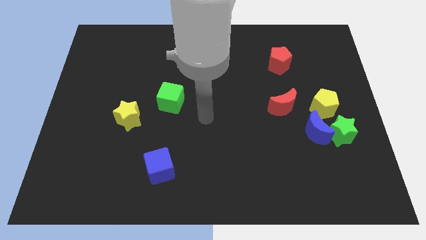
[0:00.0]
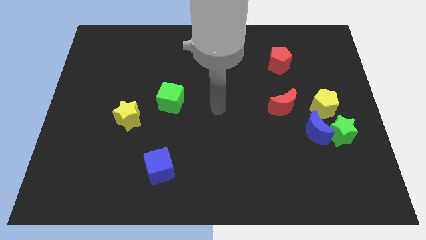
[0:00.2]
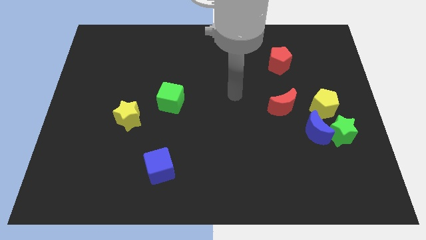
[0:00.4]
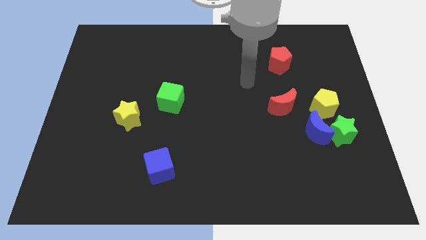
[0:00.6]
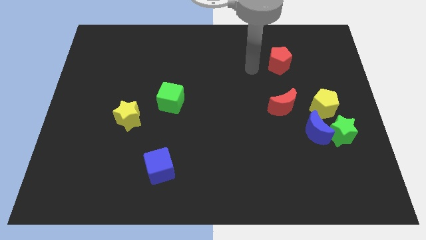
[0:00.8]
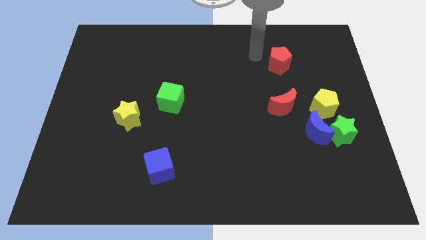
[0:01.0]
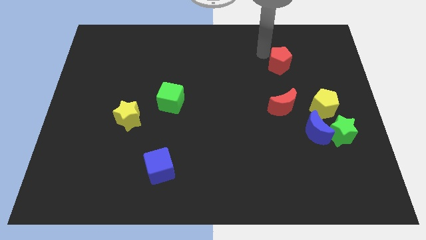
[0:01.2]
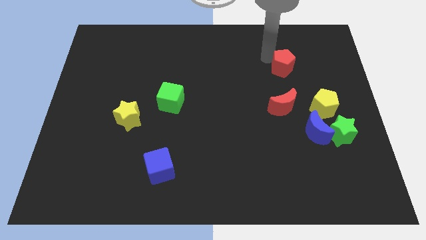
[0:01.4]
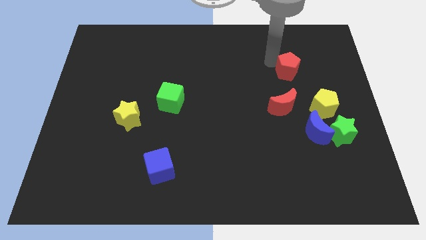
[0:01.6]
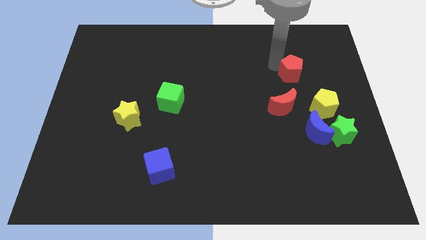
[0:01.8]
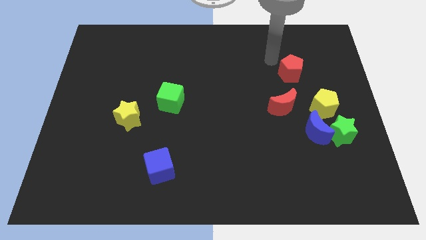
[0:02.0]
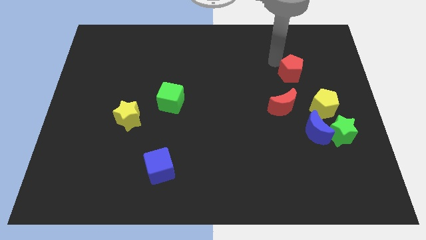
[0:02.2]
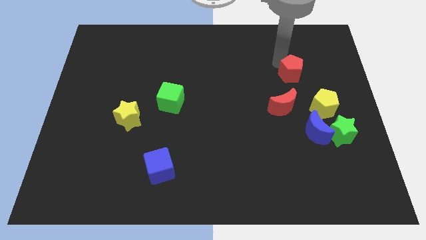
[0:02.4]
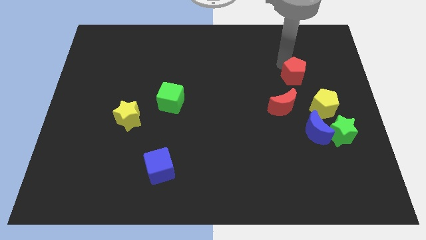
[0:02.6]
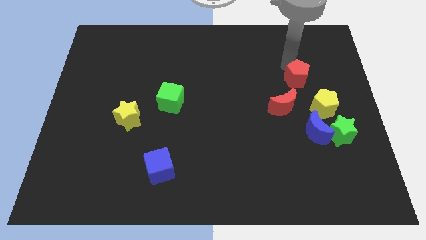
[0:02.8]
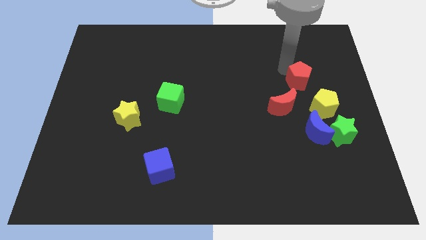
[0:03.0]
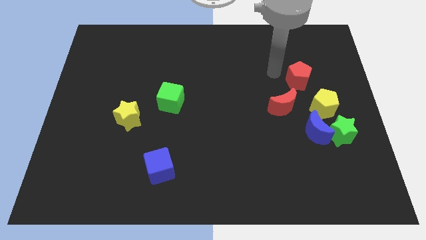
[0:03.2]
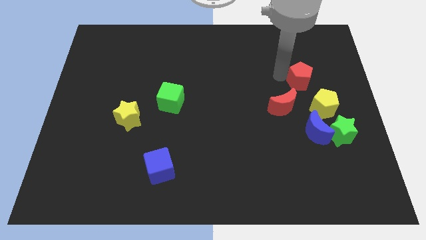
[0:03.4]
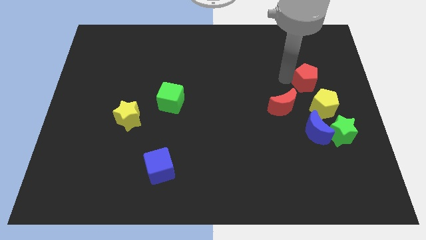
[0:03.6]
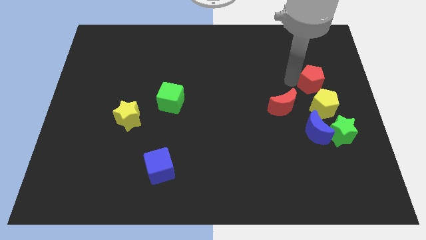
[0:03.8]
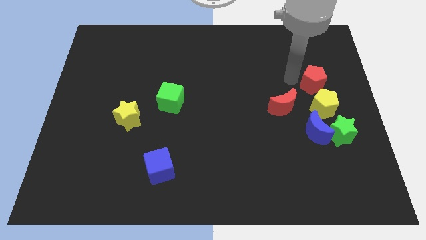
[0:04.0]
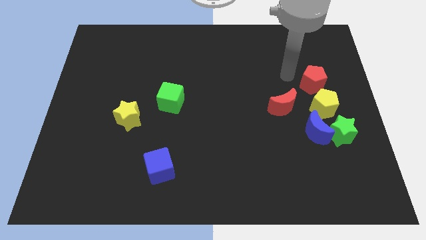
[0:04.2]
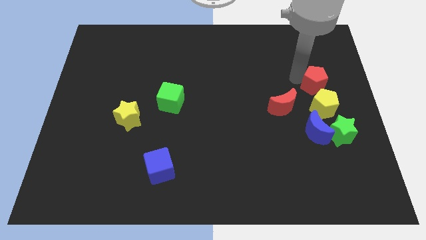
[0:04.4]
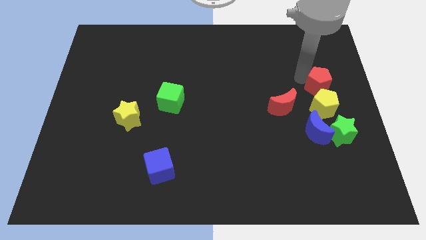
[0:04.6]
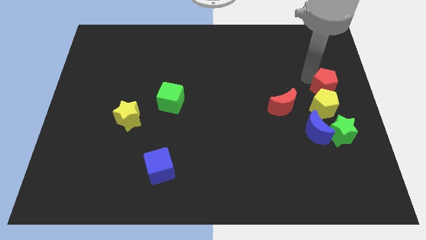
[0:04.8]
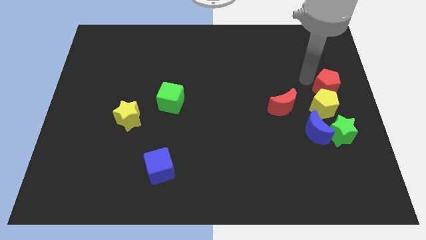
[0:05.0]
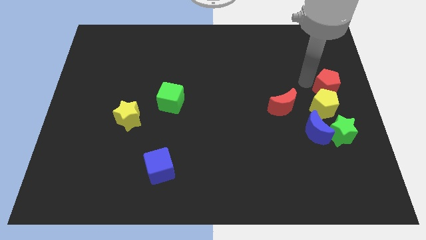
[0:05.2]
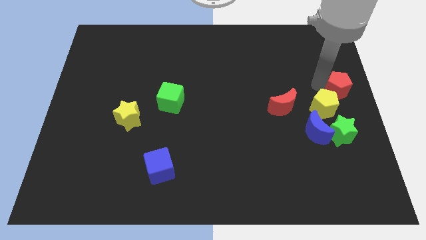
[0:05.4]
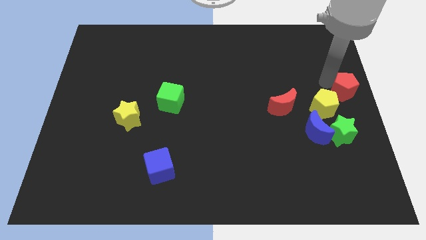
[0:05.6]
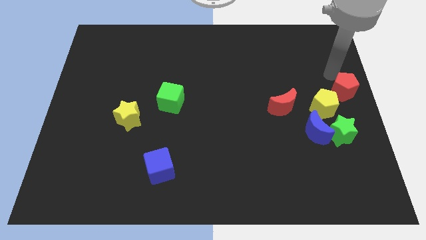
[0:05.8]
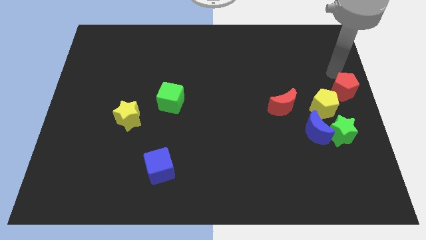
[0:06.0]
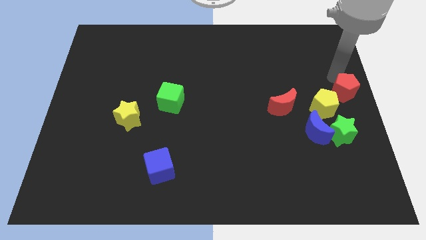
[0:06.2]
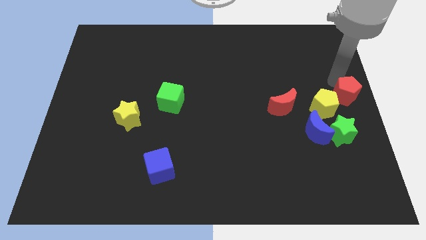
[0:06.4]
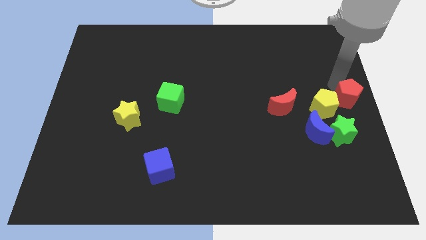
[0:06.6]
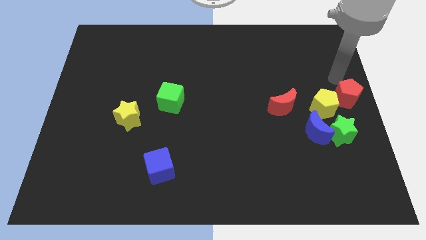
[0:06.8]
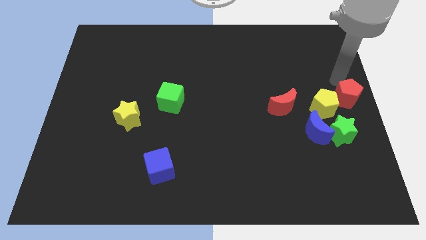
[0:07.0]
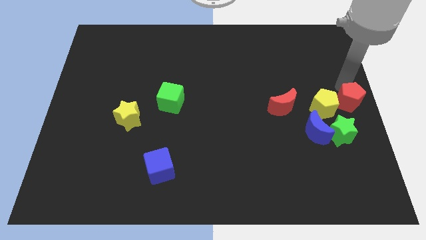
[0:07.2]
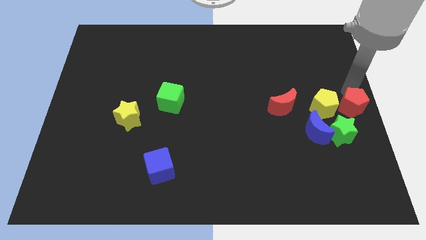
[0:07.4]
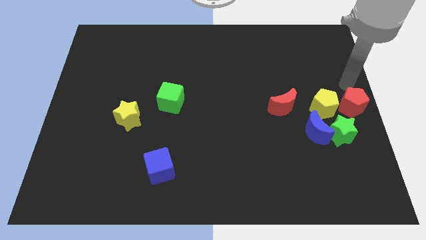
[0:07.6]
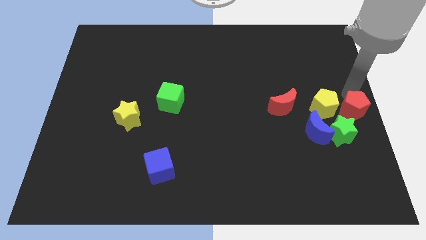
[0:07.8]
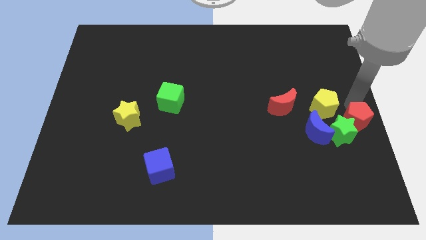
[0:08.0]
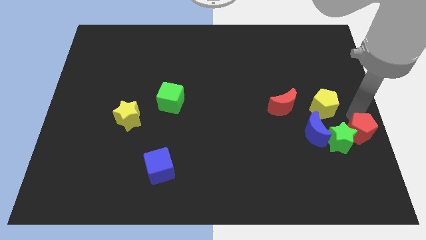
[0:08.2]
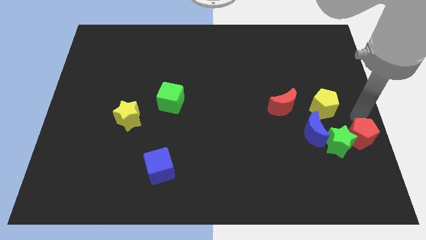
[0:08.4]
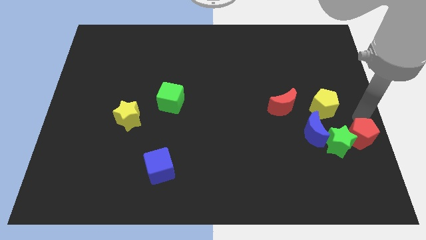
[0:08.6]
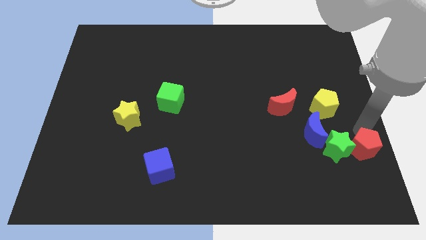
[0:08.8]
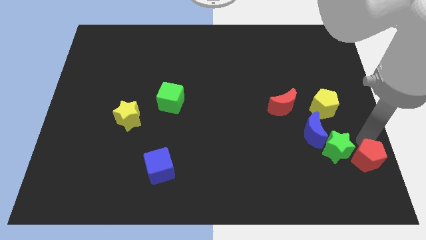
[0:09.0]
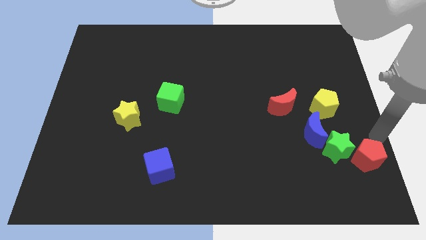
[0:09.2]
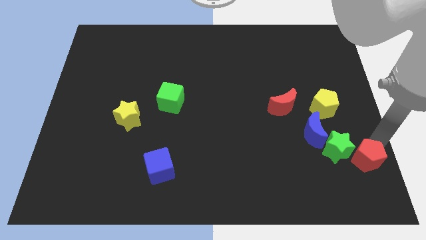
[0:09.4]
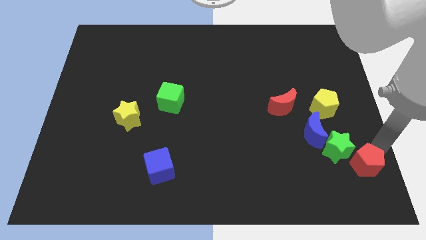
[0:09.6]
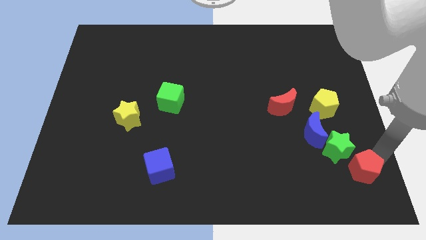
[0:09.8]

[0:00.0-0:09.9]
move the red pentagon to the bottom of the green star

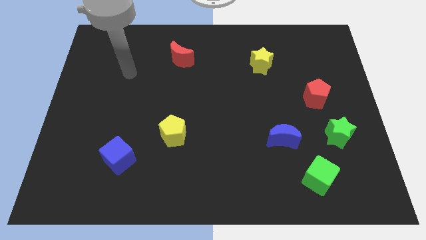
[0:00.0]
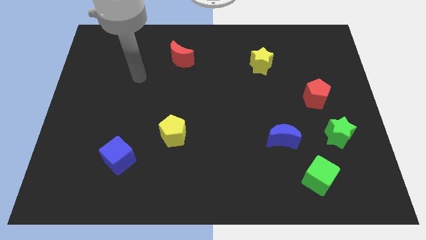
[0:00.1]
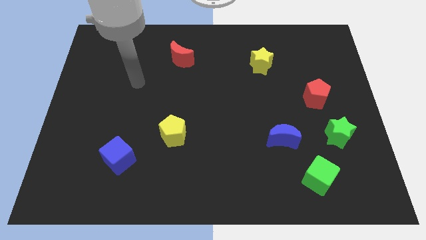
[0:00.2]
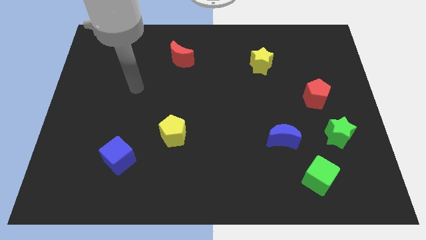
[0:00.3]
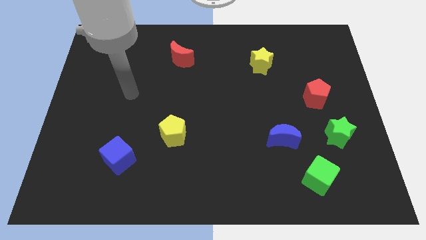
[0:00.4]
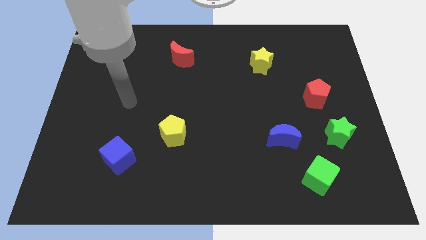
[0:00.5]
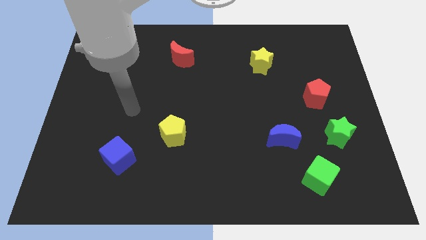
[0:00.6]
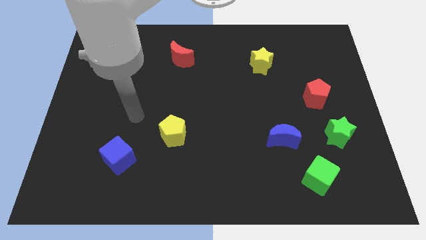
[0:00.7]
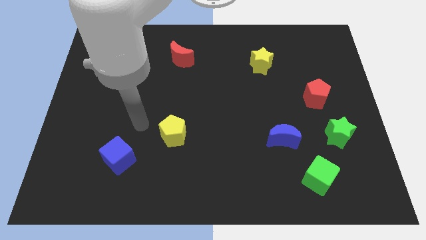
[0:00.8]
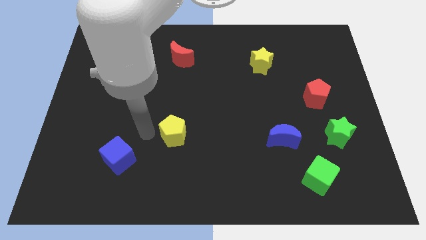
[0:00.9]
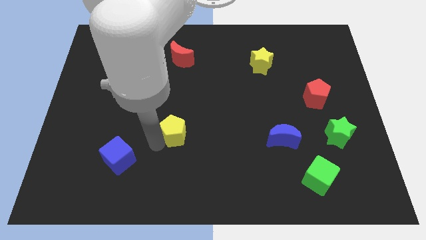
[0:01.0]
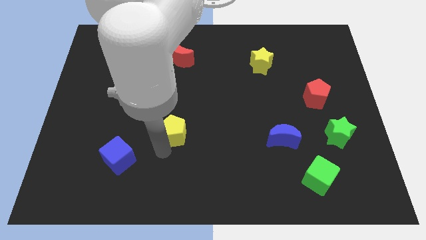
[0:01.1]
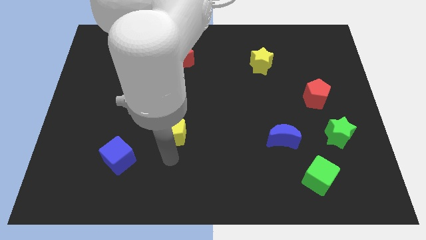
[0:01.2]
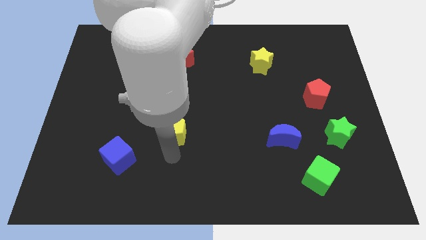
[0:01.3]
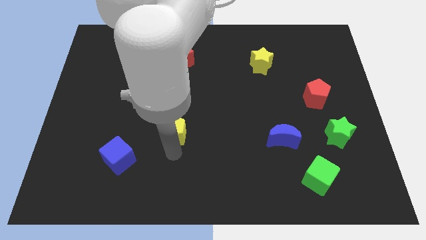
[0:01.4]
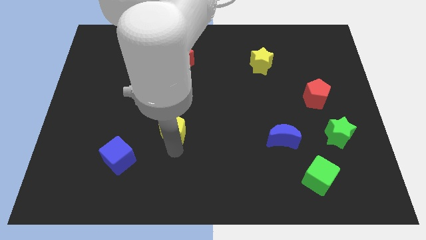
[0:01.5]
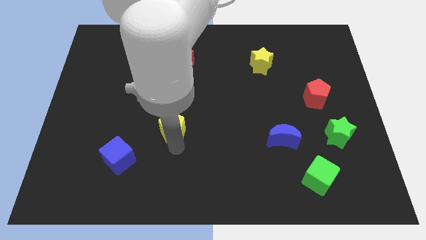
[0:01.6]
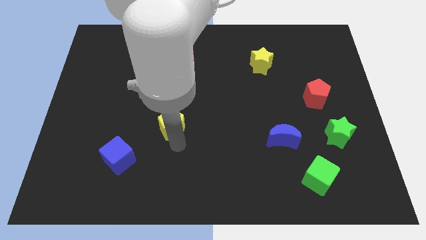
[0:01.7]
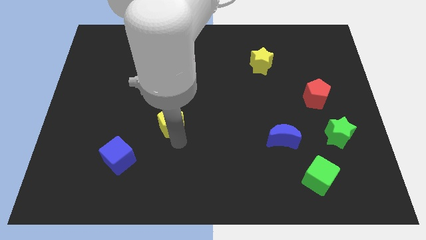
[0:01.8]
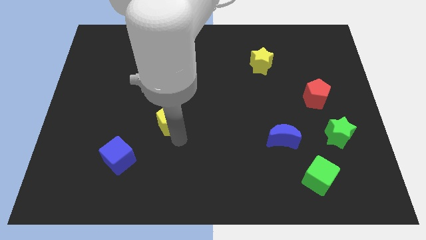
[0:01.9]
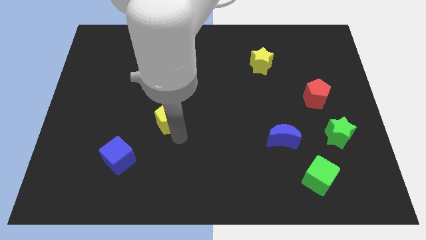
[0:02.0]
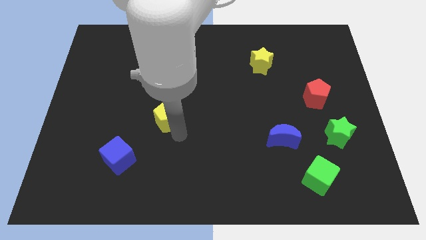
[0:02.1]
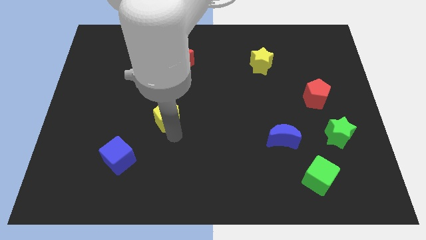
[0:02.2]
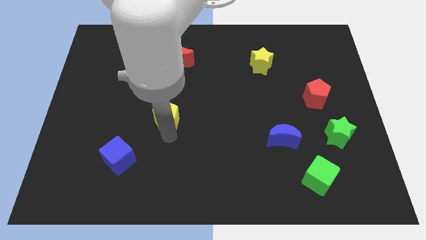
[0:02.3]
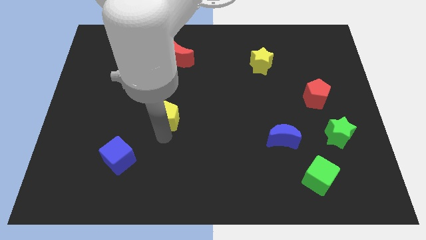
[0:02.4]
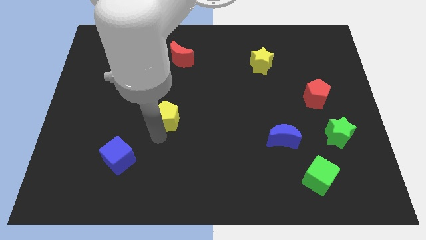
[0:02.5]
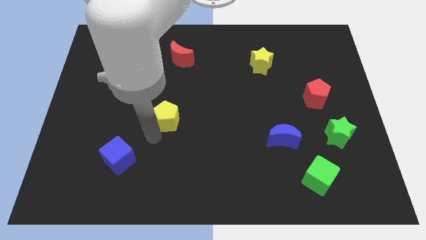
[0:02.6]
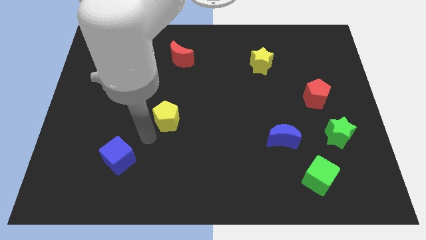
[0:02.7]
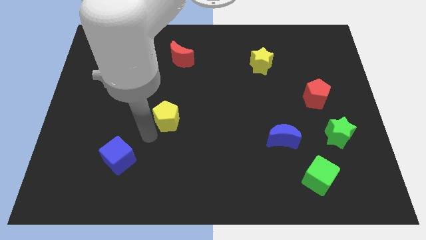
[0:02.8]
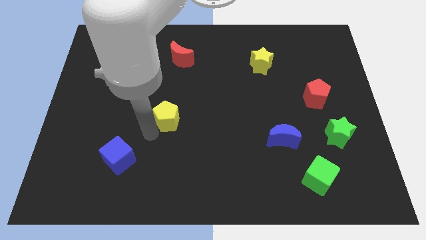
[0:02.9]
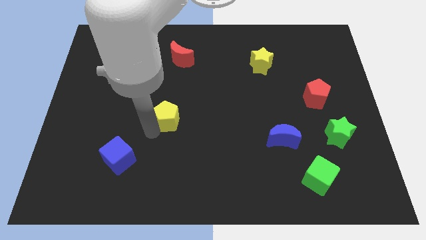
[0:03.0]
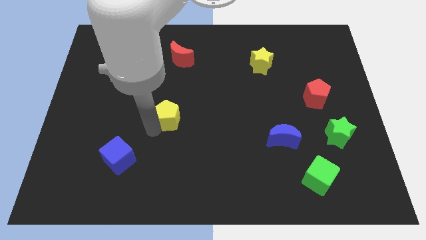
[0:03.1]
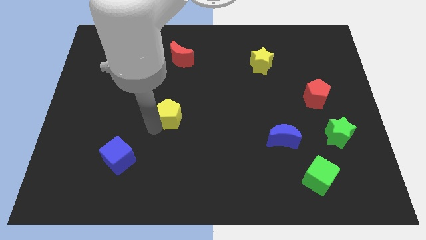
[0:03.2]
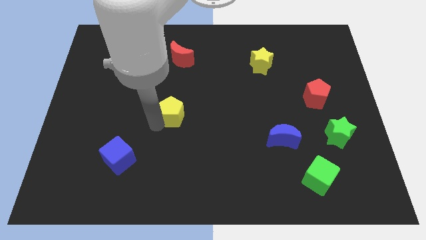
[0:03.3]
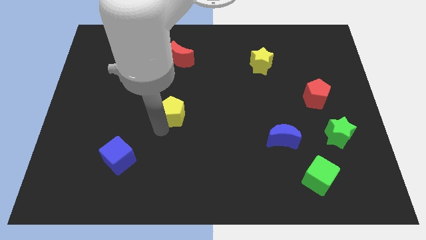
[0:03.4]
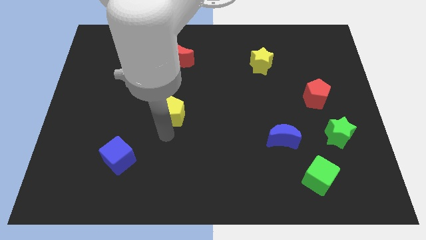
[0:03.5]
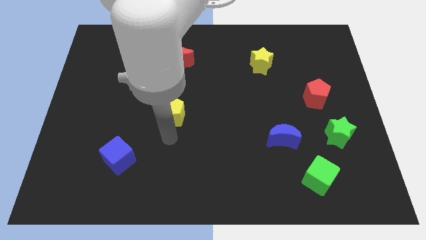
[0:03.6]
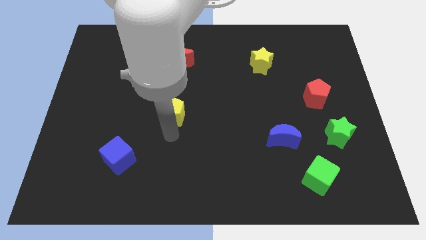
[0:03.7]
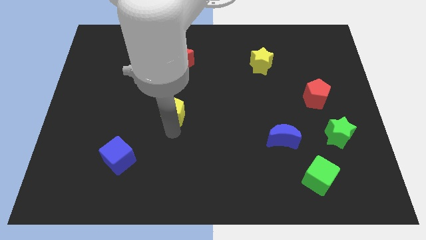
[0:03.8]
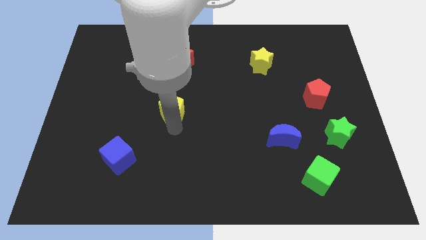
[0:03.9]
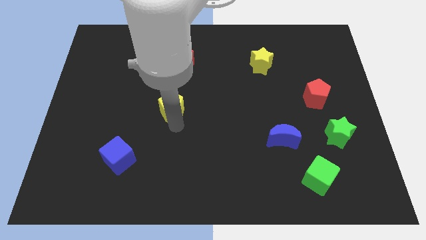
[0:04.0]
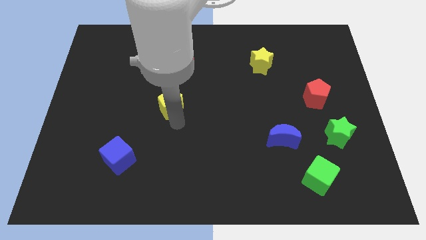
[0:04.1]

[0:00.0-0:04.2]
move the yellow pentagon to the bottom side of the red moon
